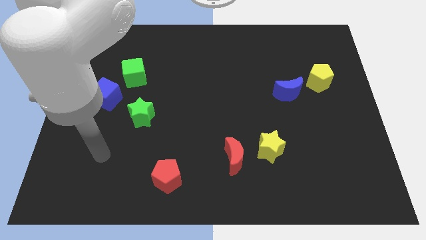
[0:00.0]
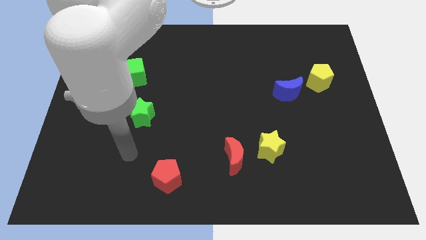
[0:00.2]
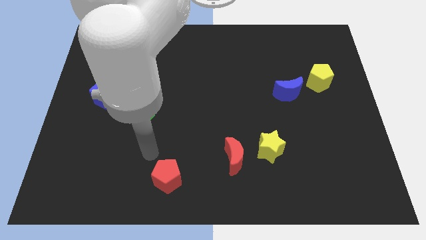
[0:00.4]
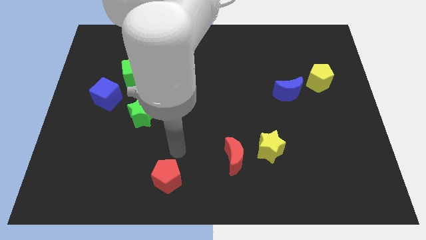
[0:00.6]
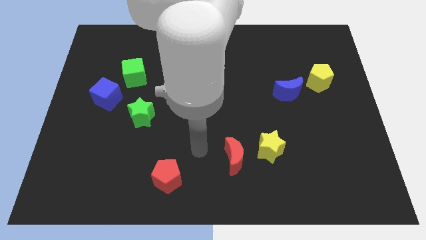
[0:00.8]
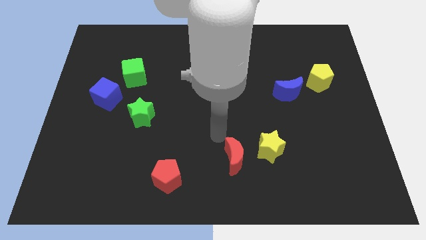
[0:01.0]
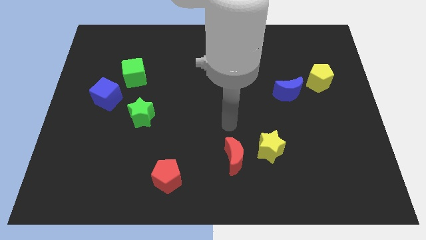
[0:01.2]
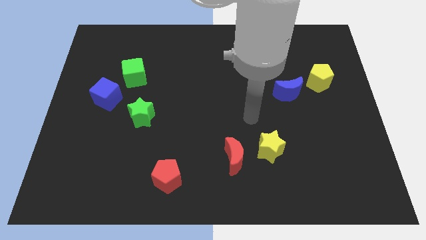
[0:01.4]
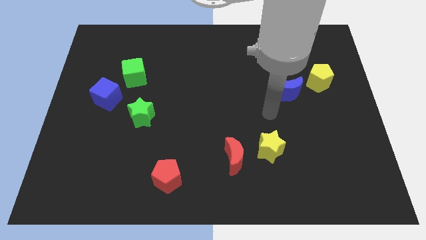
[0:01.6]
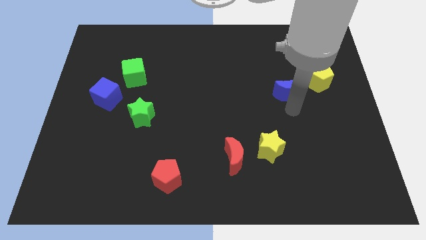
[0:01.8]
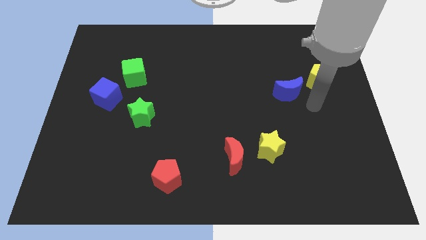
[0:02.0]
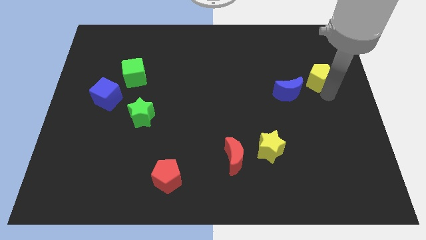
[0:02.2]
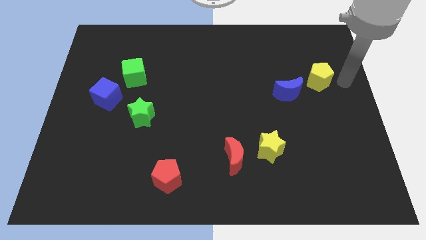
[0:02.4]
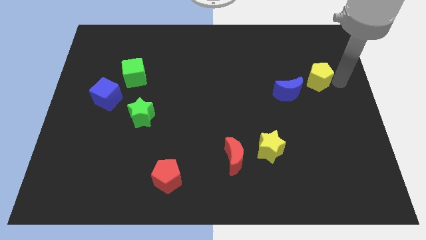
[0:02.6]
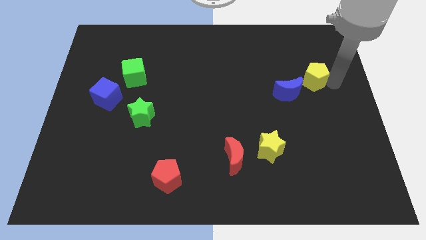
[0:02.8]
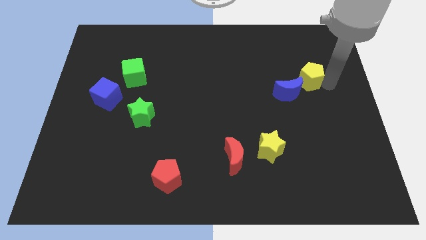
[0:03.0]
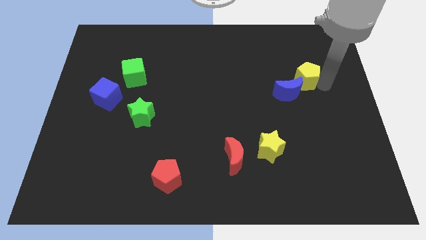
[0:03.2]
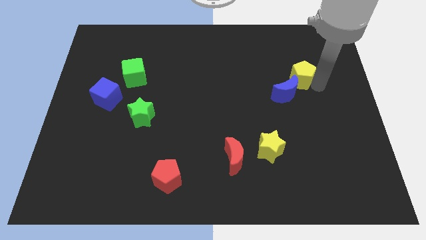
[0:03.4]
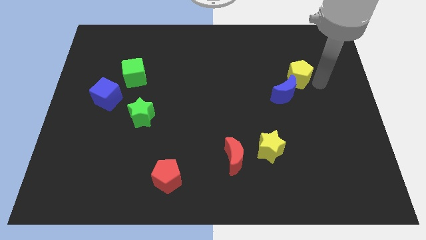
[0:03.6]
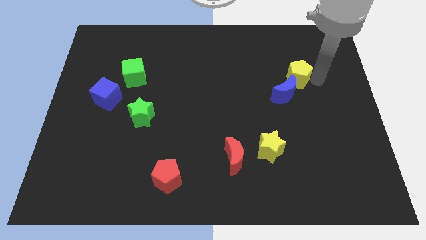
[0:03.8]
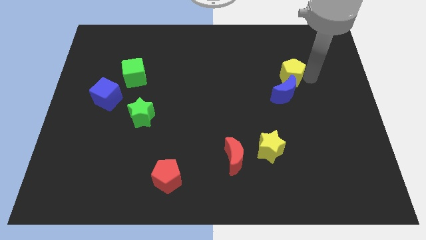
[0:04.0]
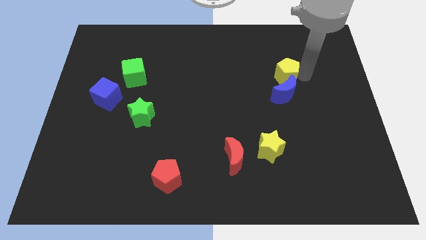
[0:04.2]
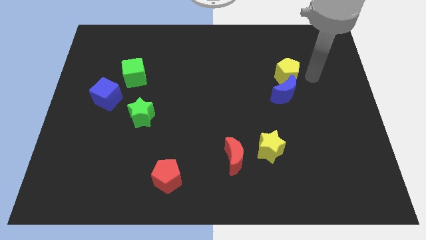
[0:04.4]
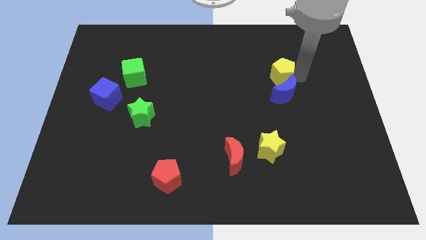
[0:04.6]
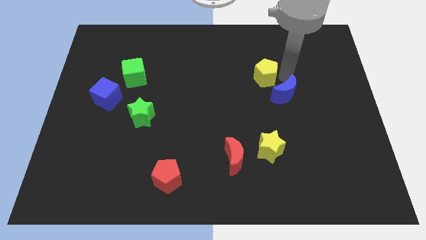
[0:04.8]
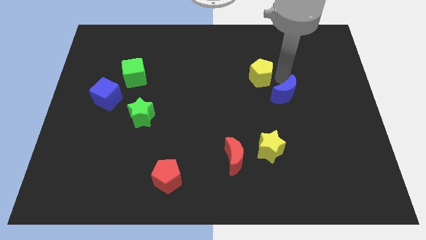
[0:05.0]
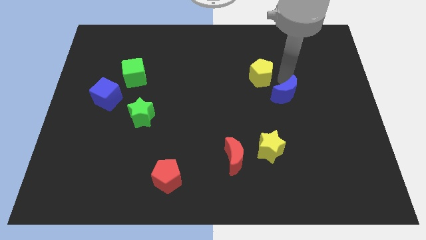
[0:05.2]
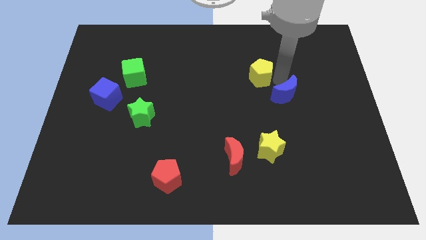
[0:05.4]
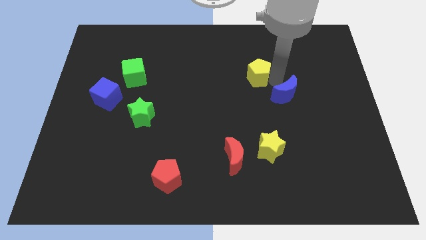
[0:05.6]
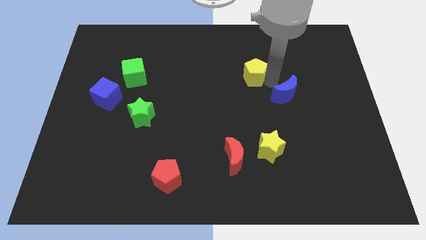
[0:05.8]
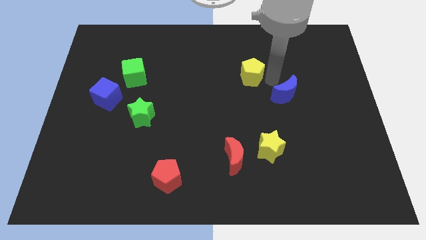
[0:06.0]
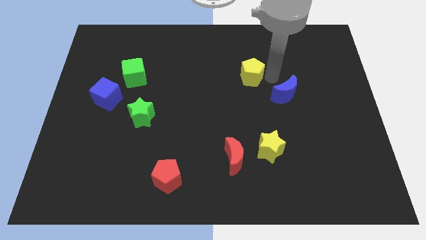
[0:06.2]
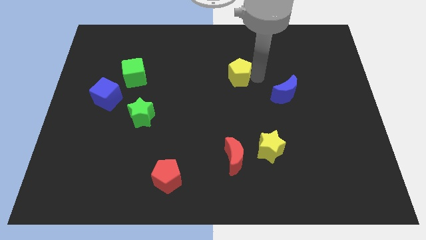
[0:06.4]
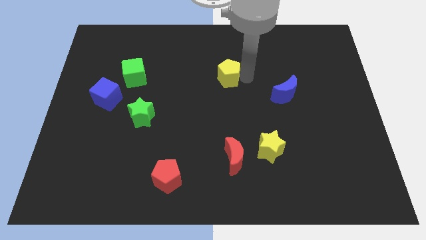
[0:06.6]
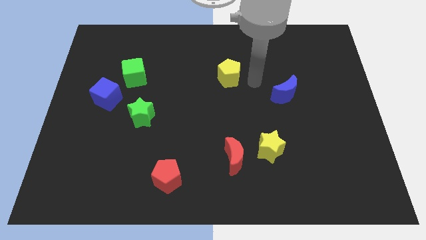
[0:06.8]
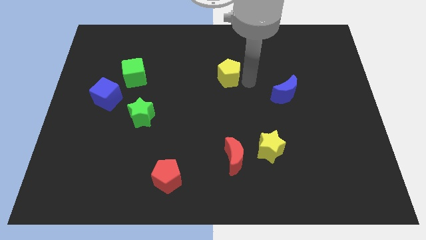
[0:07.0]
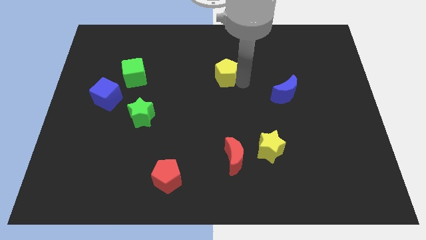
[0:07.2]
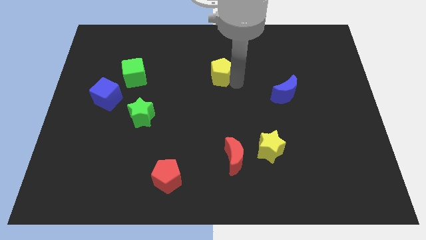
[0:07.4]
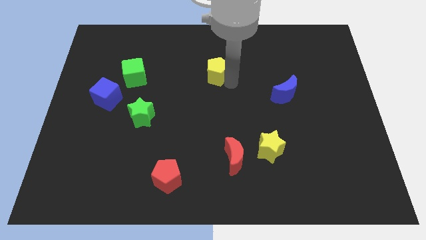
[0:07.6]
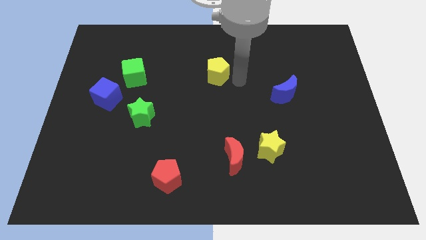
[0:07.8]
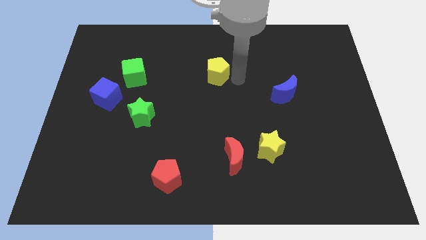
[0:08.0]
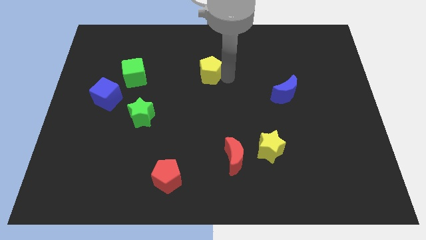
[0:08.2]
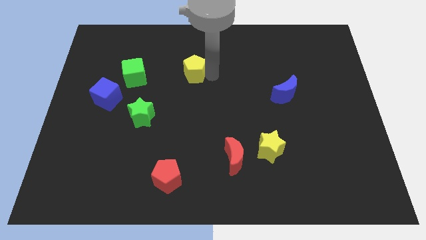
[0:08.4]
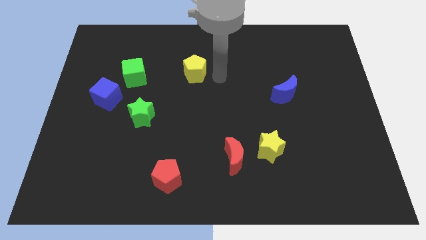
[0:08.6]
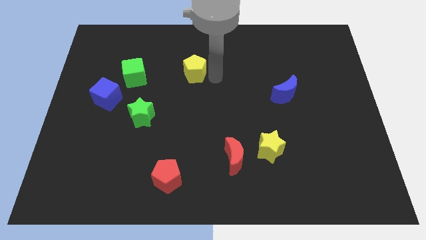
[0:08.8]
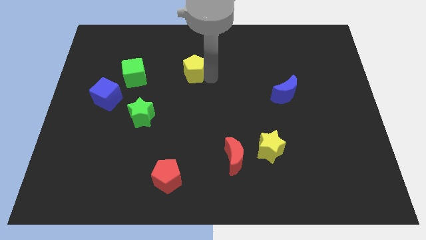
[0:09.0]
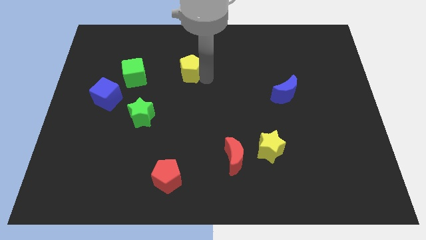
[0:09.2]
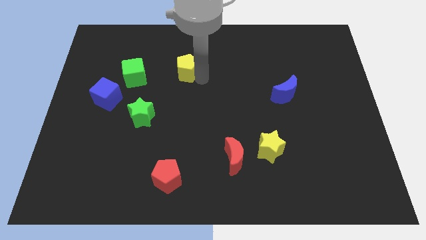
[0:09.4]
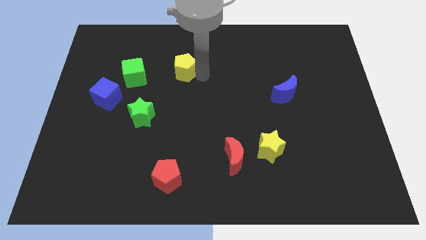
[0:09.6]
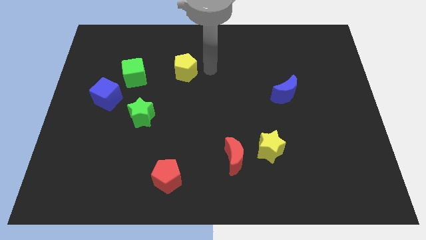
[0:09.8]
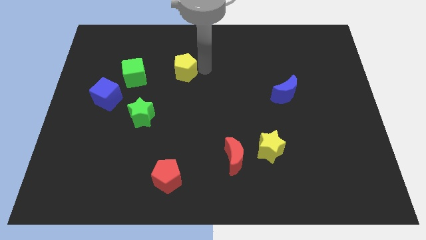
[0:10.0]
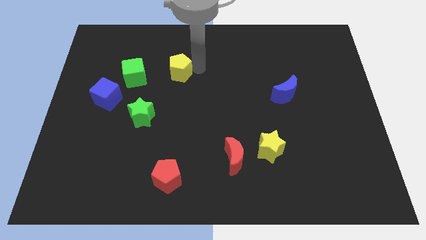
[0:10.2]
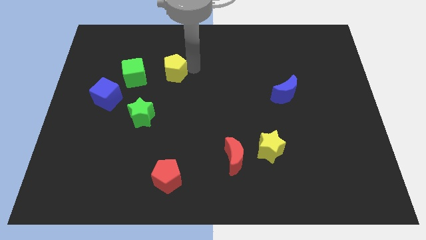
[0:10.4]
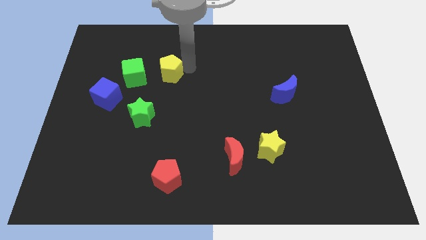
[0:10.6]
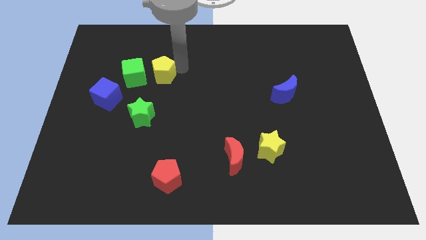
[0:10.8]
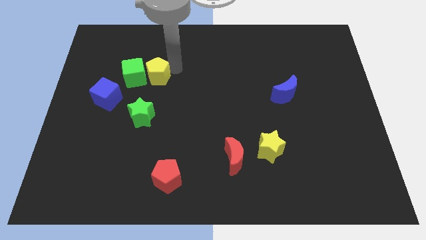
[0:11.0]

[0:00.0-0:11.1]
slide the yellow pentagon close to the green cube

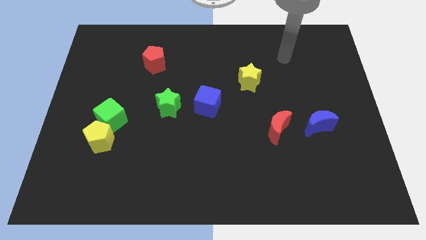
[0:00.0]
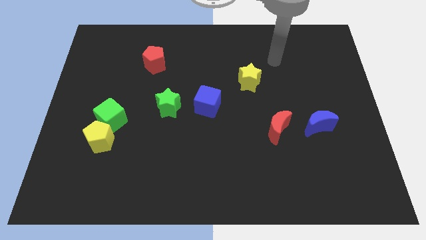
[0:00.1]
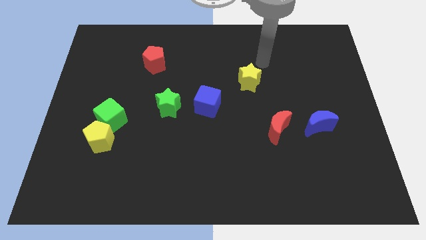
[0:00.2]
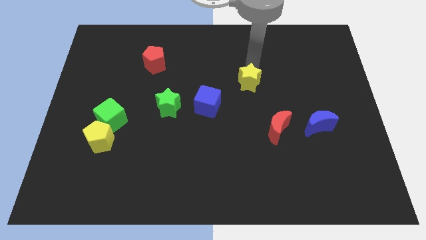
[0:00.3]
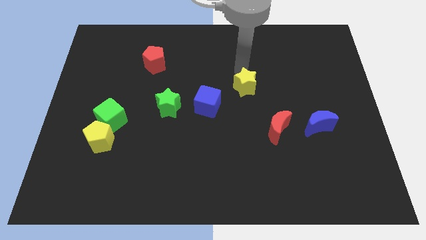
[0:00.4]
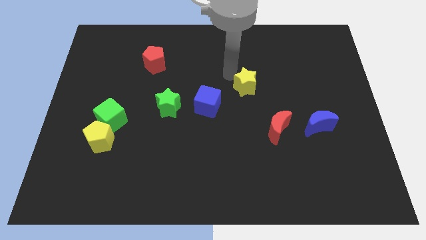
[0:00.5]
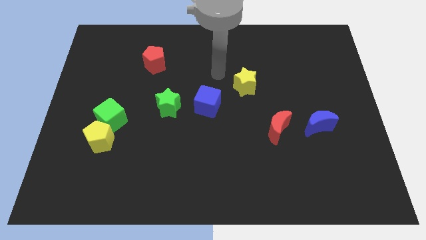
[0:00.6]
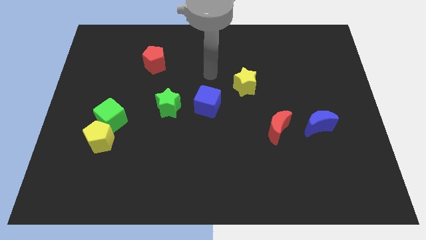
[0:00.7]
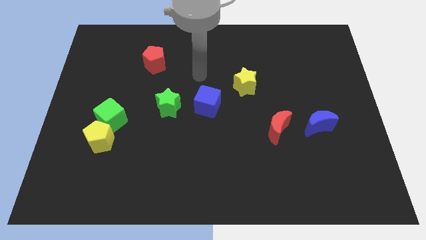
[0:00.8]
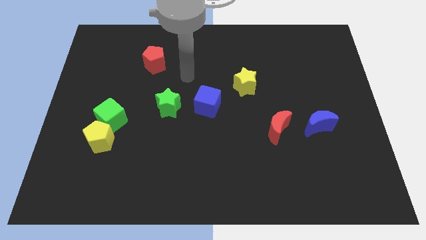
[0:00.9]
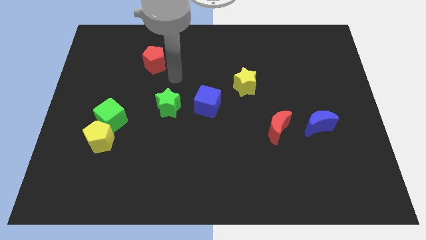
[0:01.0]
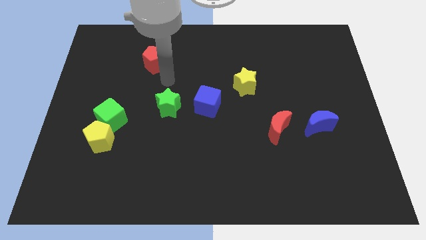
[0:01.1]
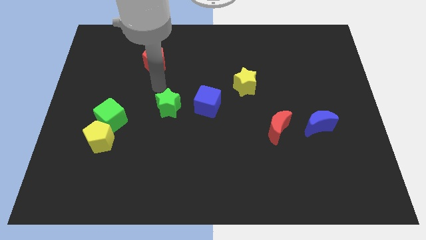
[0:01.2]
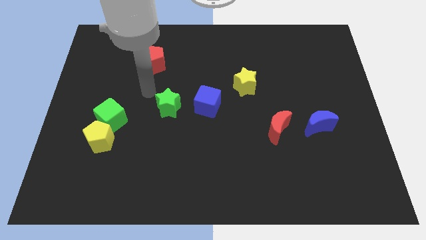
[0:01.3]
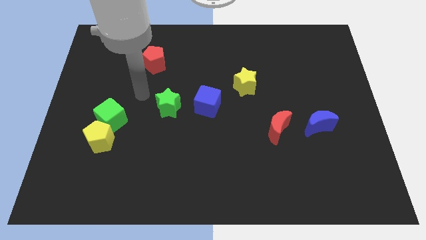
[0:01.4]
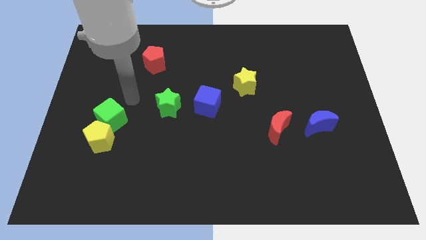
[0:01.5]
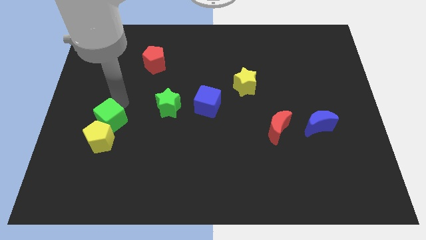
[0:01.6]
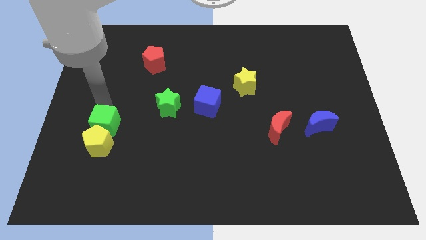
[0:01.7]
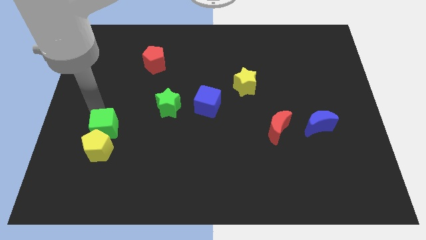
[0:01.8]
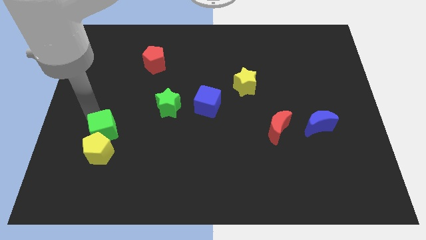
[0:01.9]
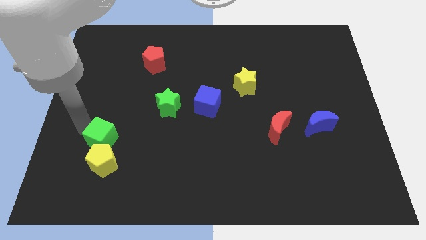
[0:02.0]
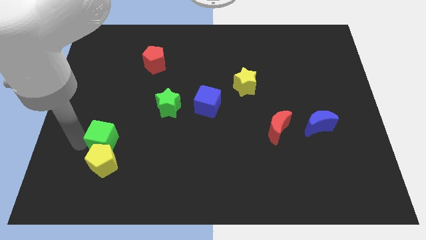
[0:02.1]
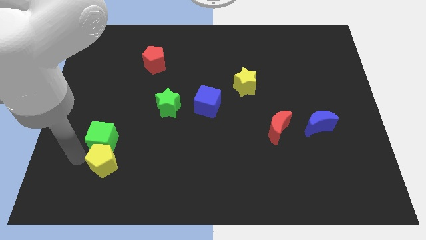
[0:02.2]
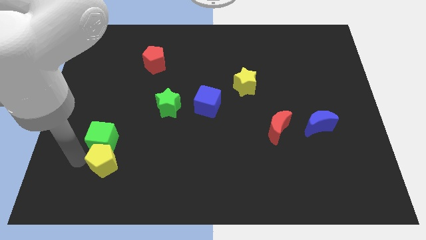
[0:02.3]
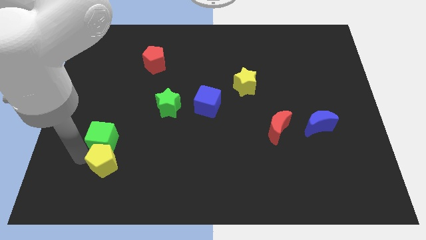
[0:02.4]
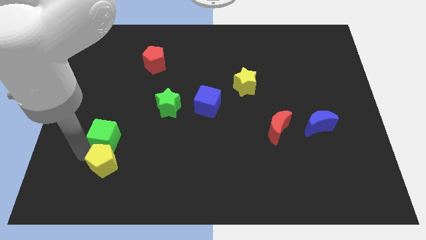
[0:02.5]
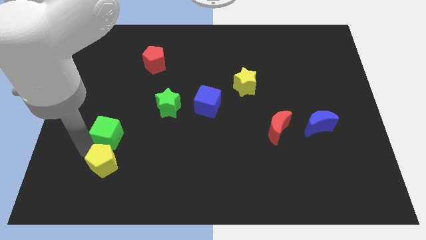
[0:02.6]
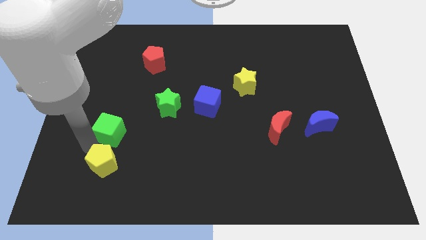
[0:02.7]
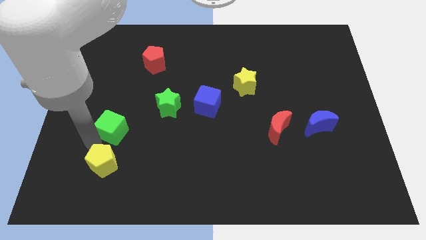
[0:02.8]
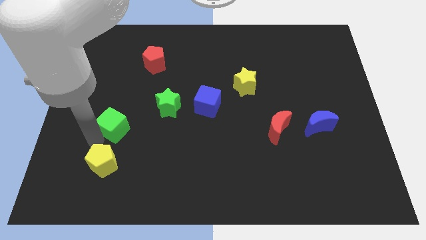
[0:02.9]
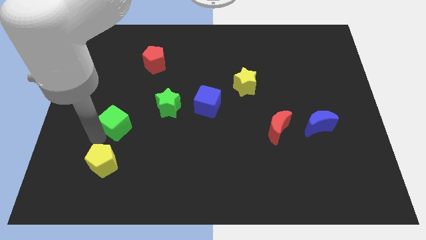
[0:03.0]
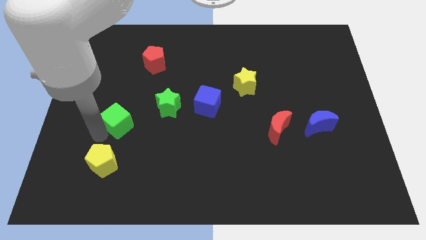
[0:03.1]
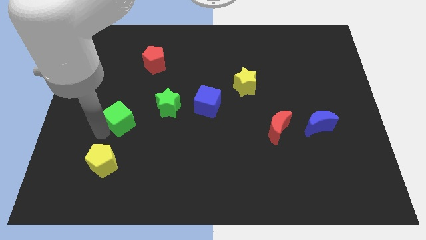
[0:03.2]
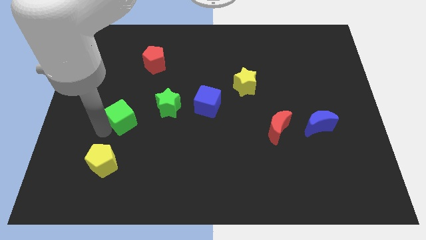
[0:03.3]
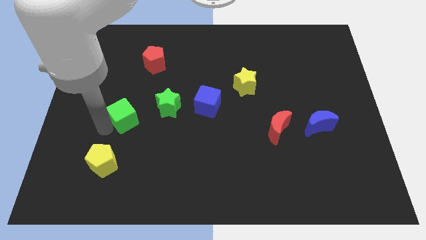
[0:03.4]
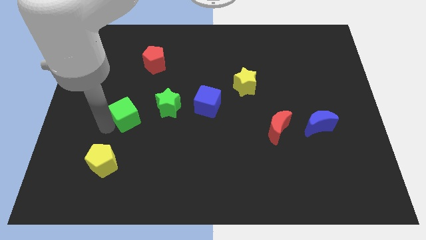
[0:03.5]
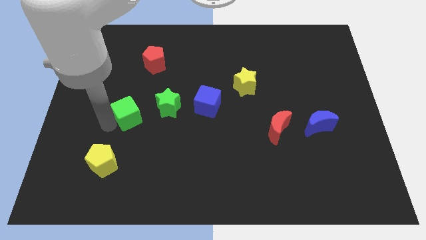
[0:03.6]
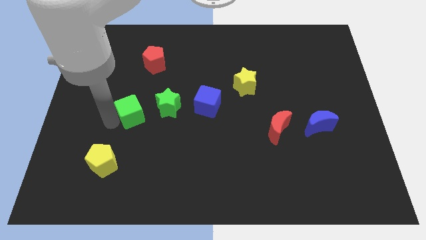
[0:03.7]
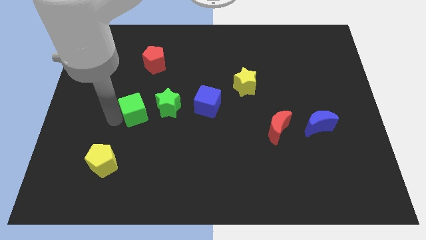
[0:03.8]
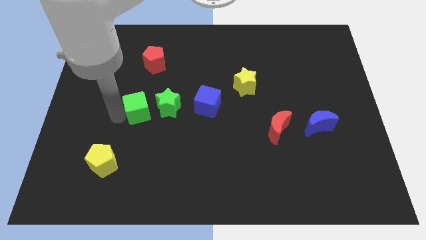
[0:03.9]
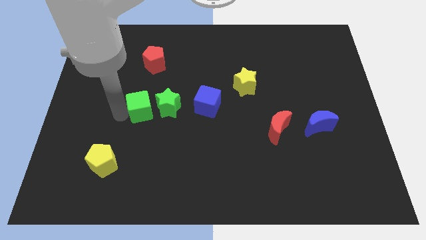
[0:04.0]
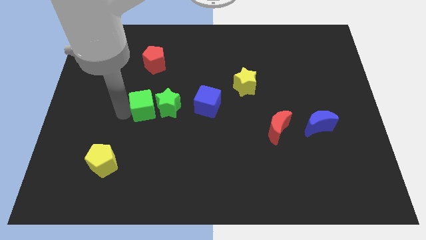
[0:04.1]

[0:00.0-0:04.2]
put the green cube towards the green star
